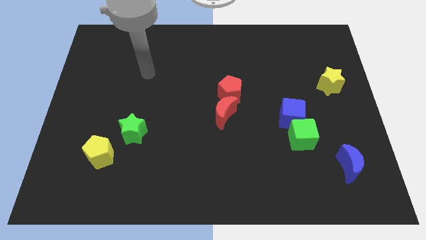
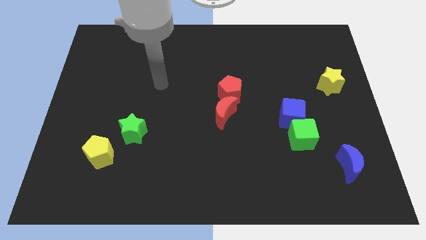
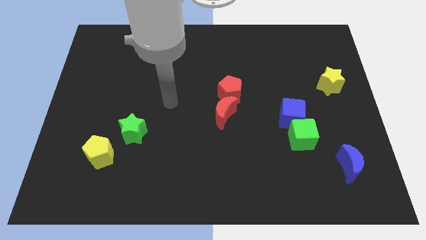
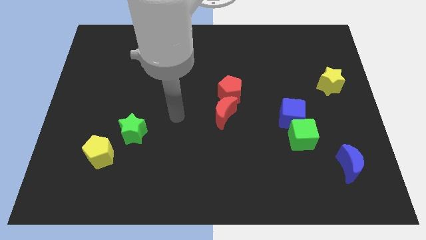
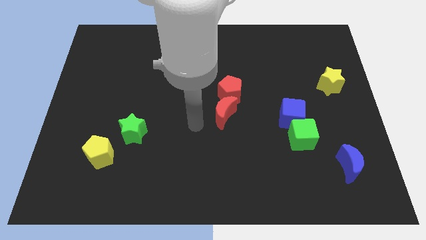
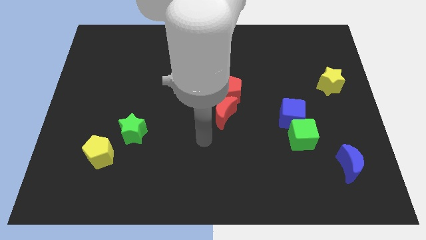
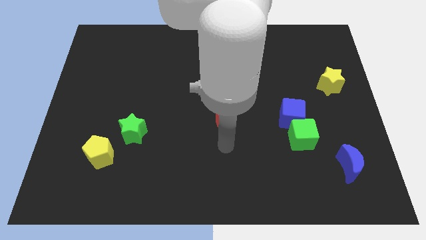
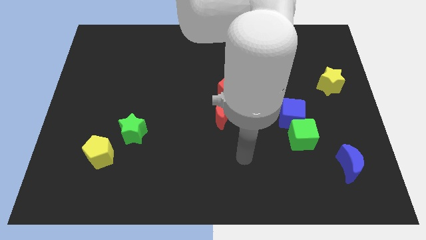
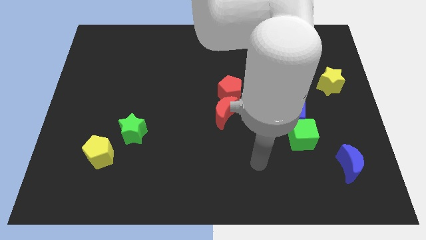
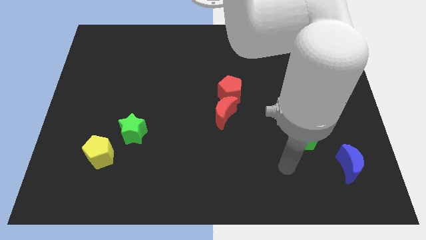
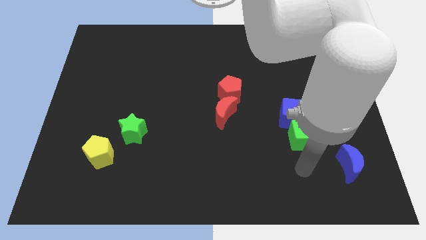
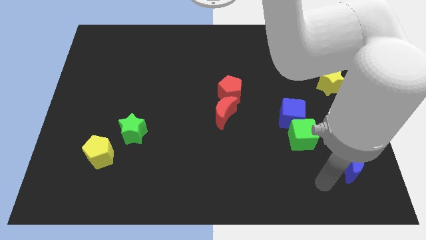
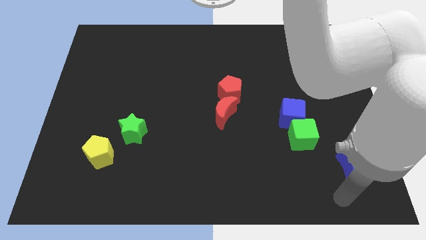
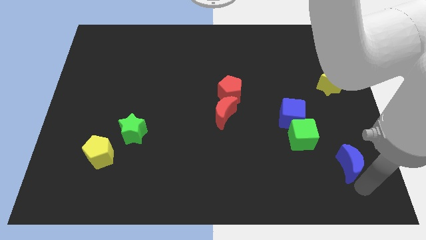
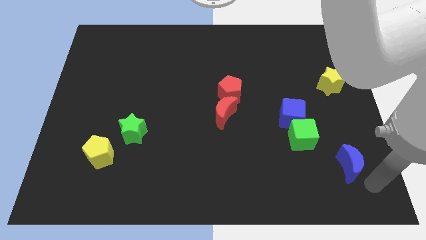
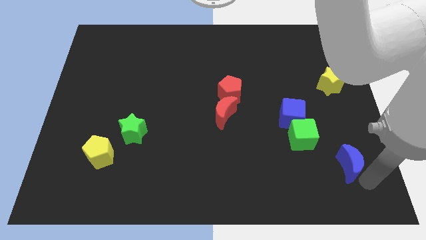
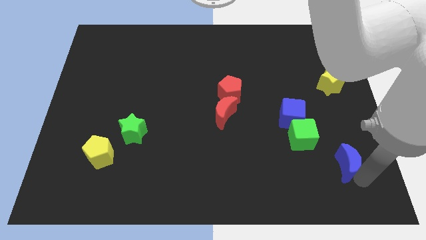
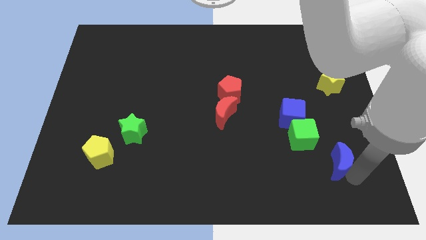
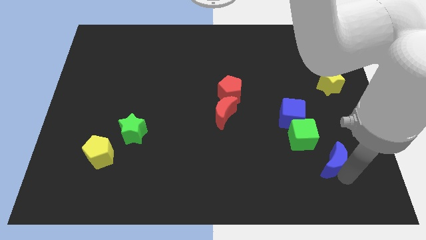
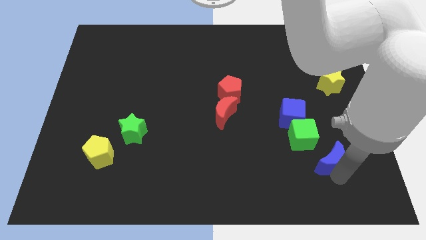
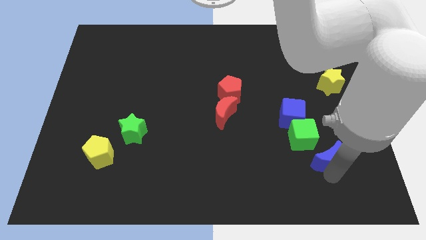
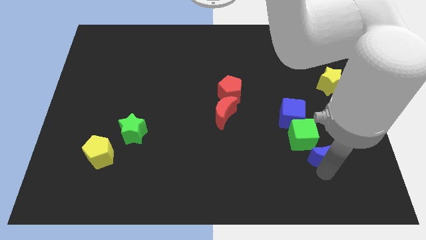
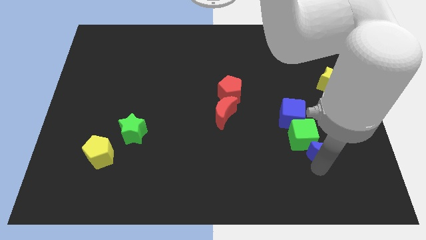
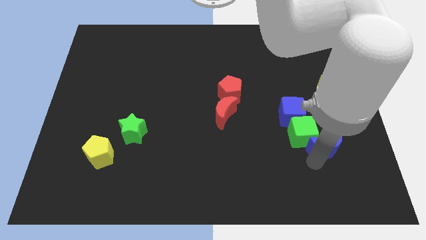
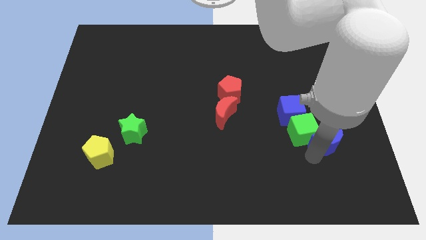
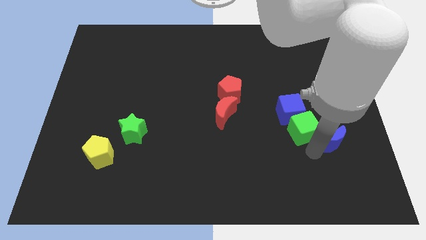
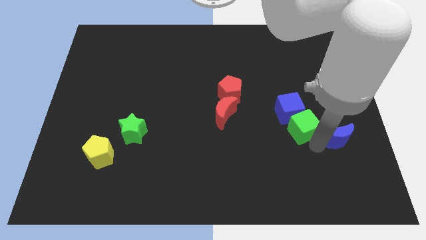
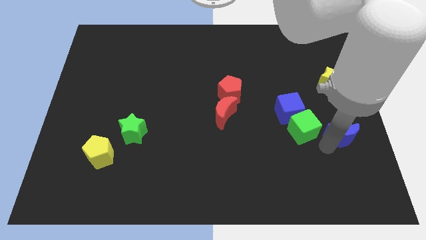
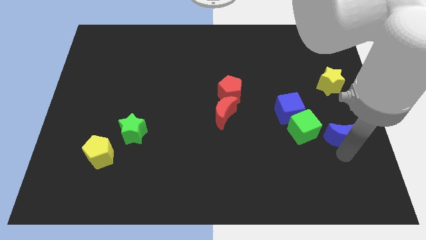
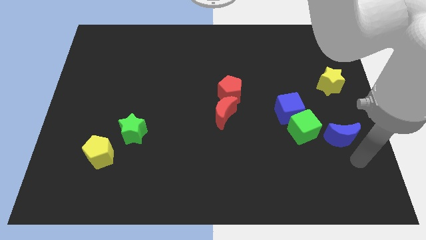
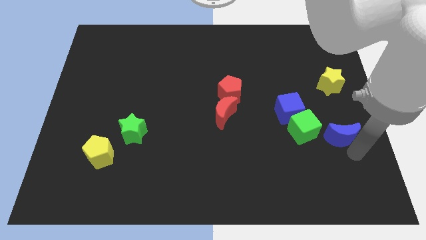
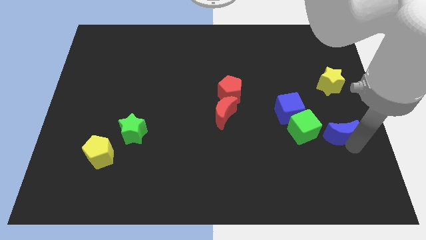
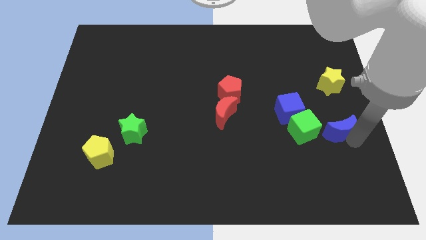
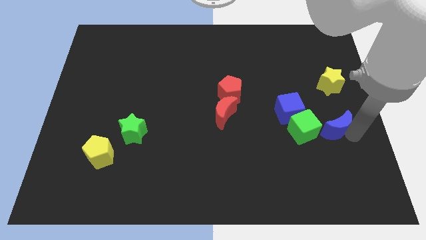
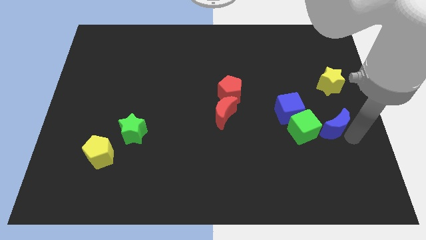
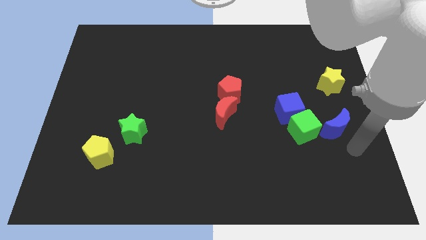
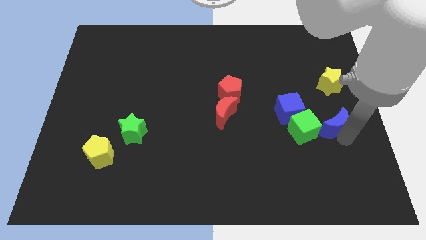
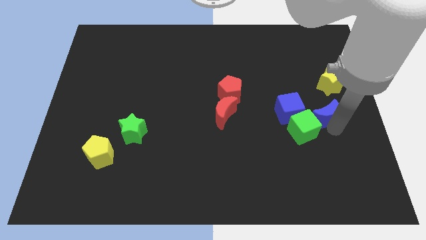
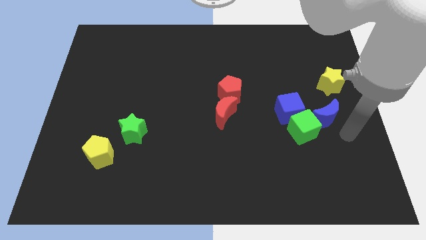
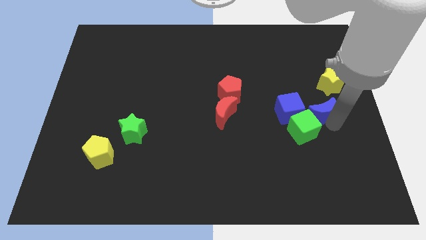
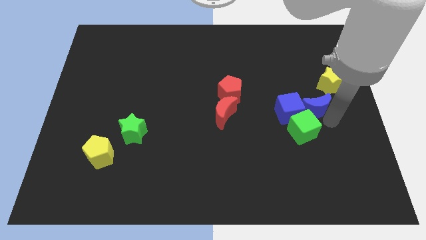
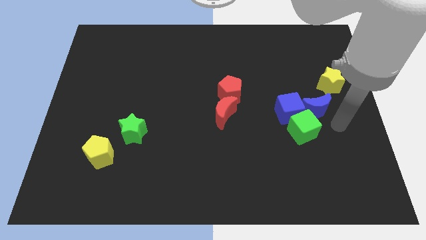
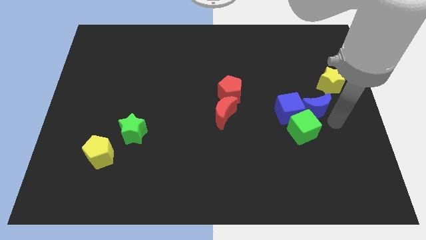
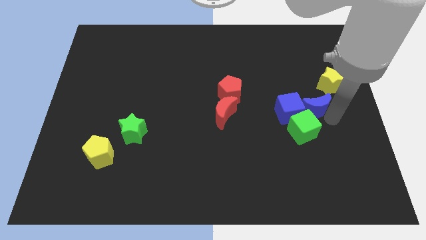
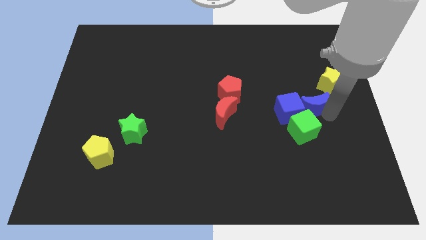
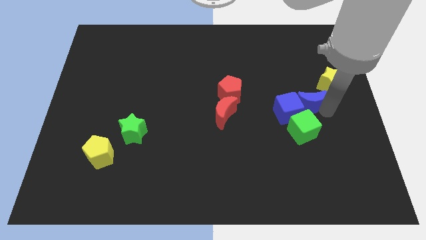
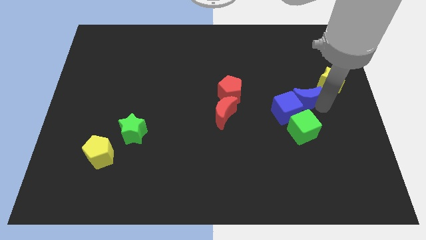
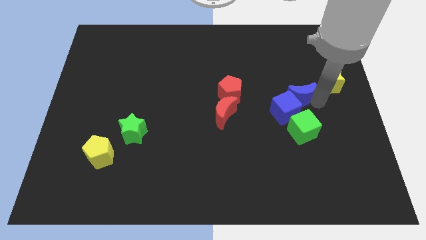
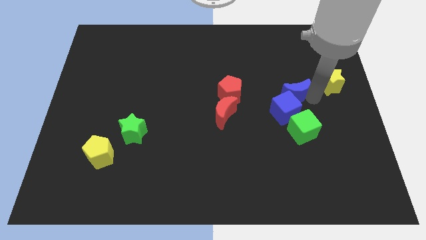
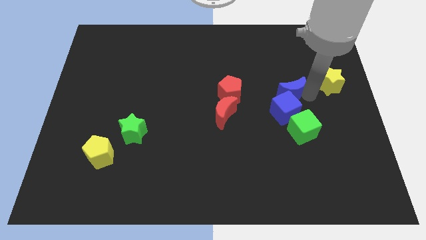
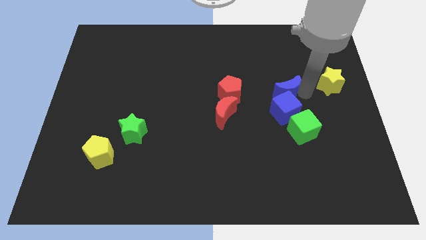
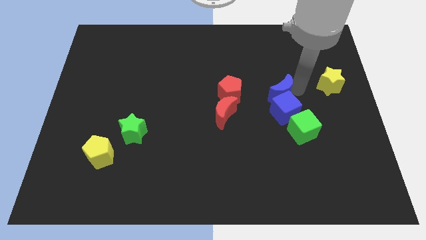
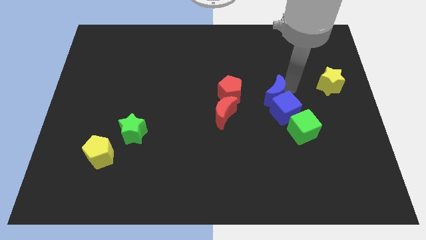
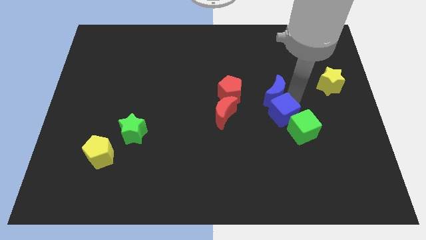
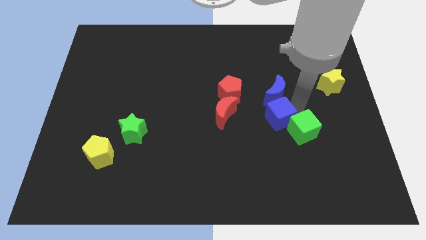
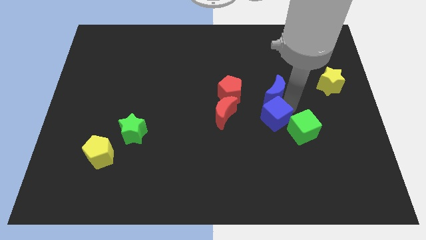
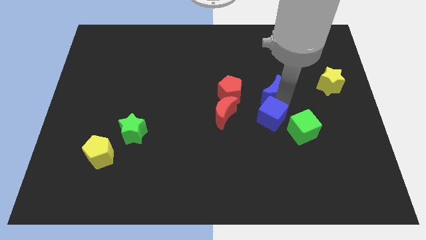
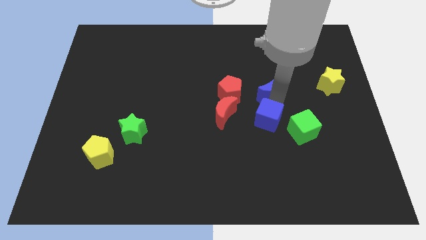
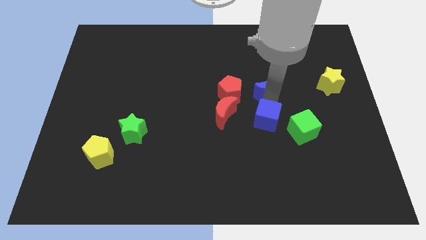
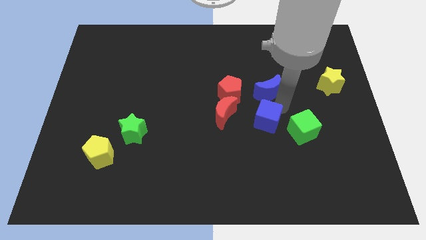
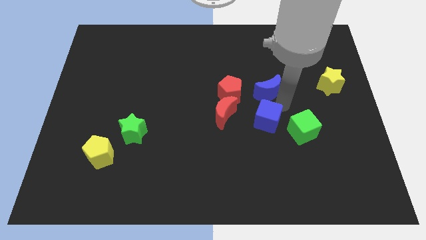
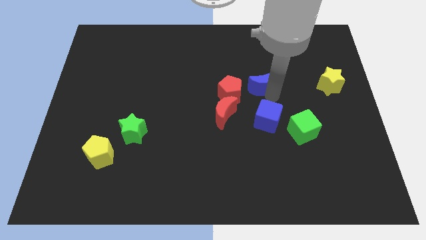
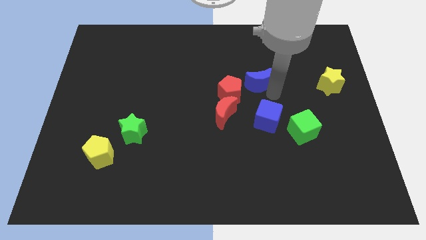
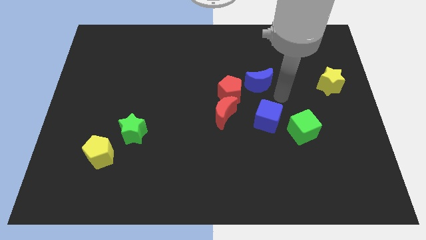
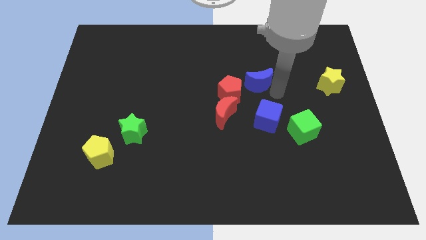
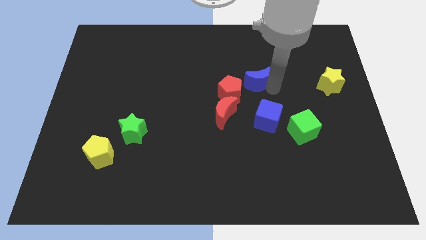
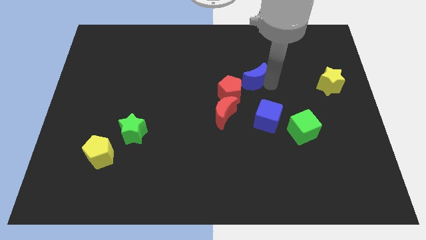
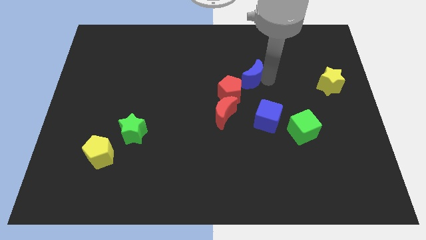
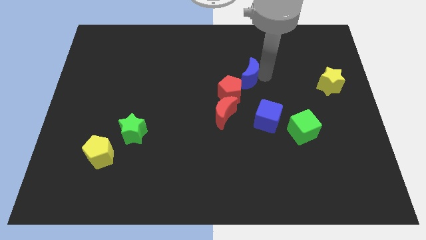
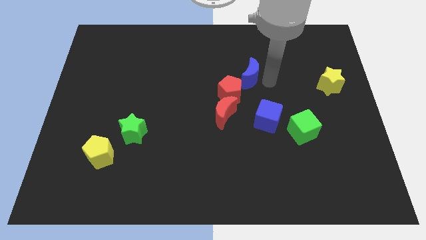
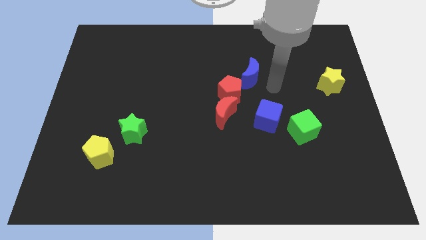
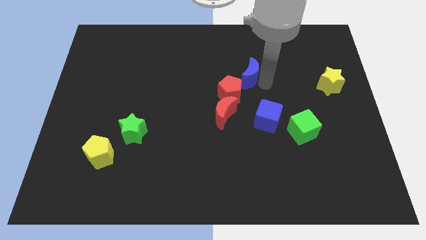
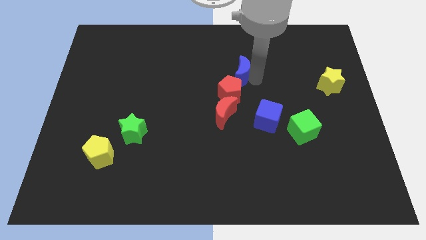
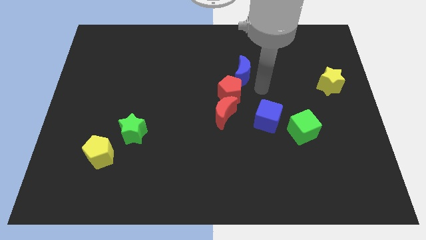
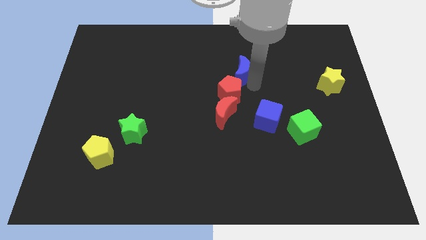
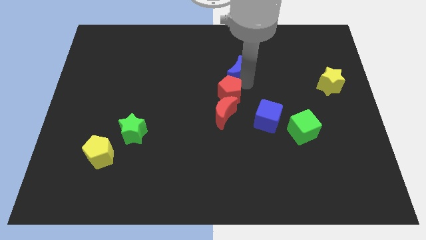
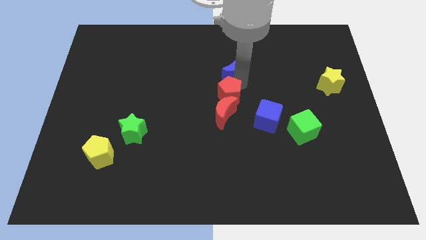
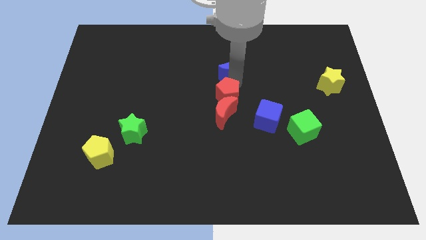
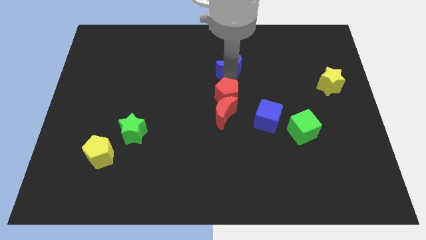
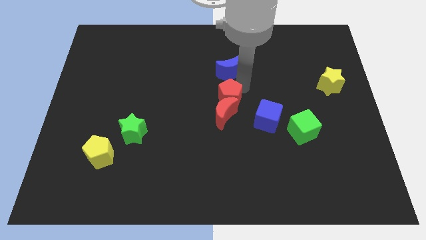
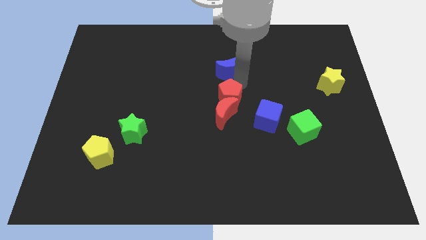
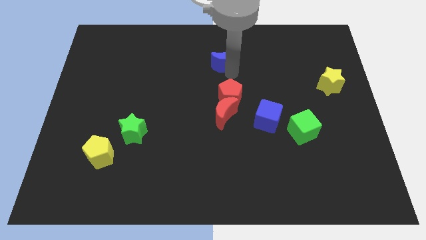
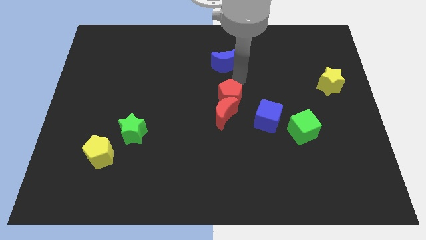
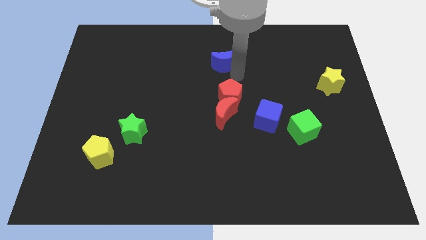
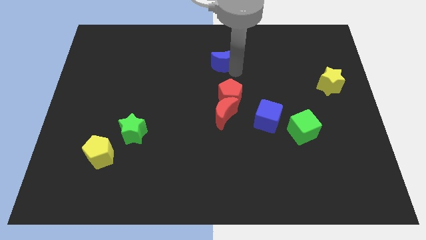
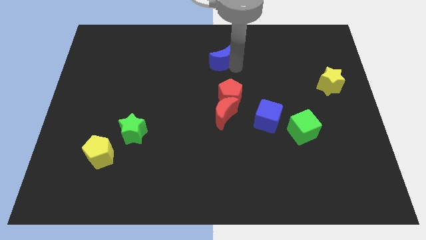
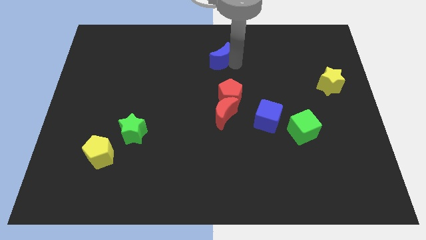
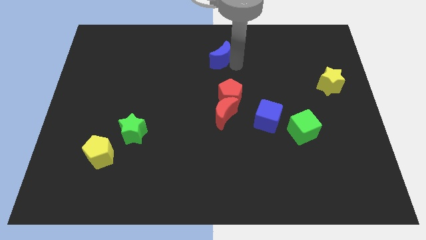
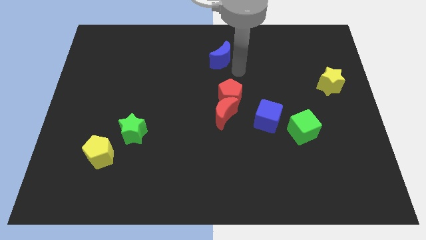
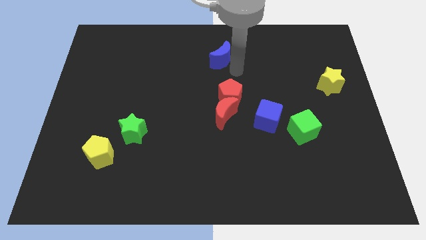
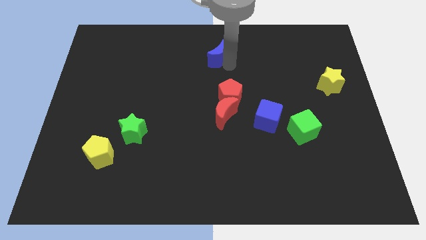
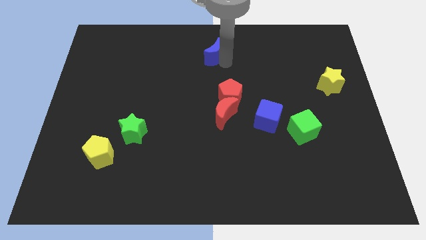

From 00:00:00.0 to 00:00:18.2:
slide the blue moon to the top side
